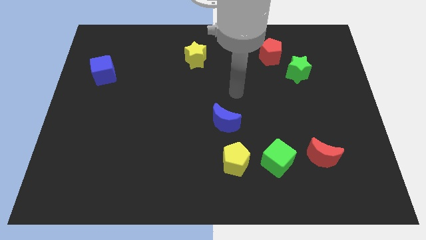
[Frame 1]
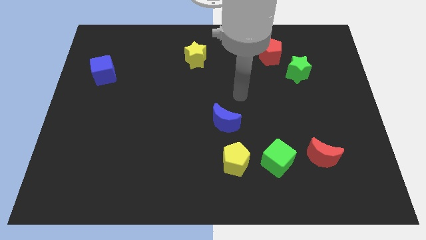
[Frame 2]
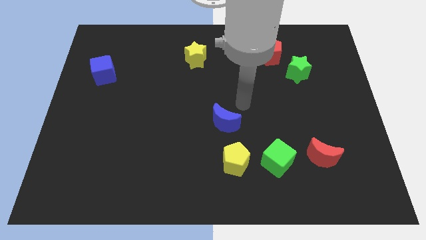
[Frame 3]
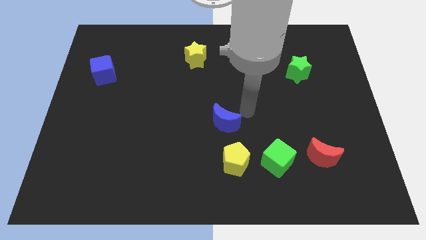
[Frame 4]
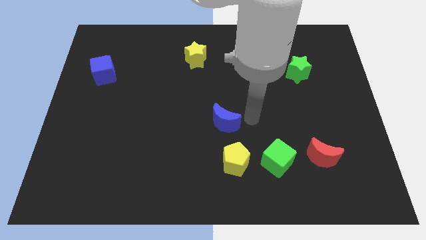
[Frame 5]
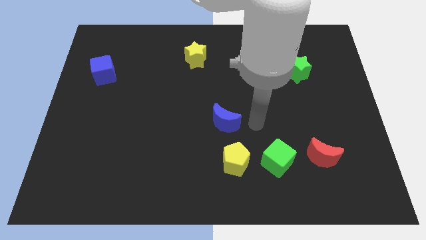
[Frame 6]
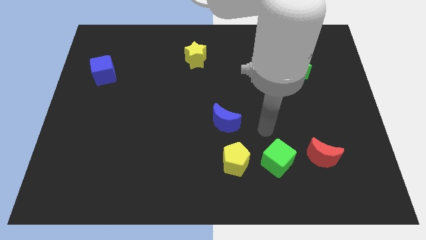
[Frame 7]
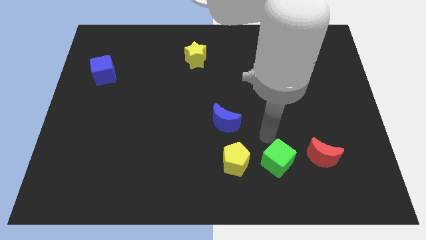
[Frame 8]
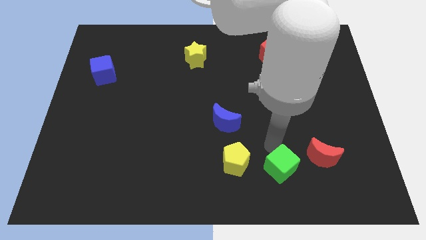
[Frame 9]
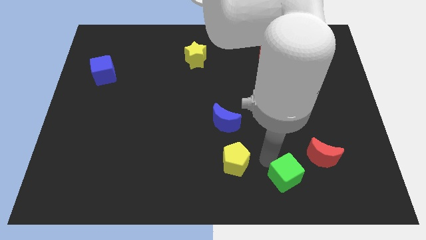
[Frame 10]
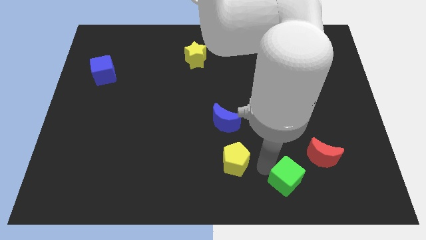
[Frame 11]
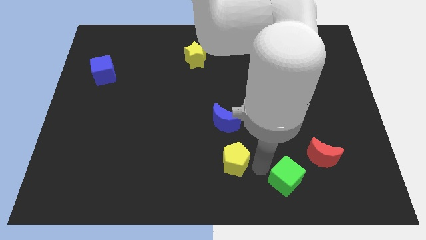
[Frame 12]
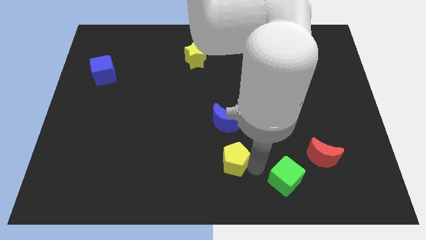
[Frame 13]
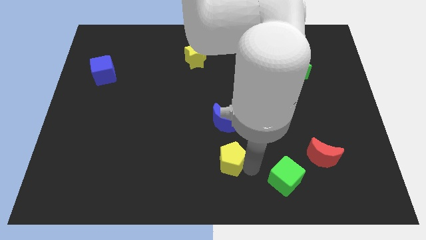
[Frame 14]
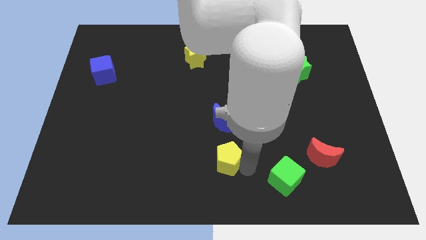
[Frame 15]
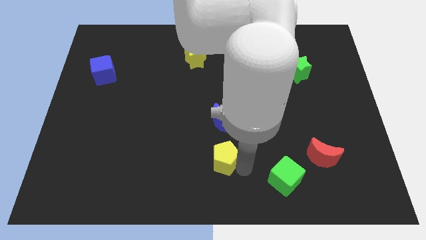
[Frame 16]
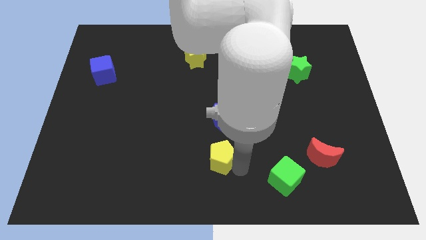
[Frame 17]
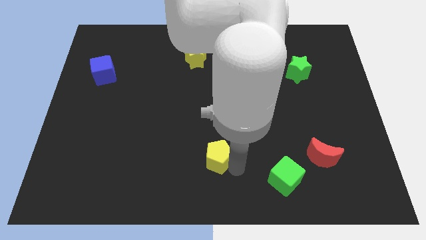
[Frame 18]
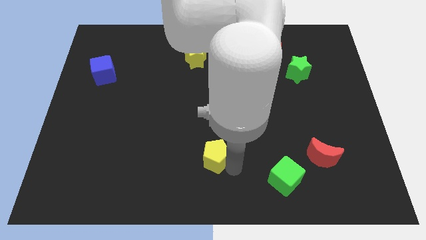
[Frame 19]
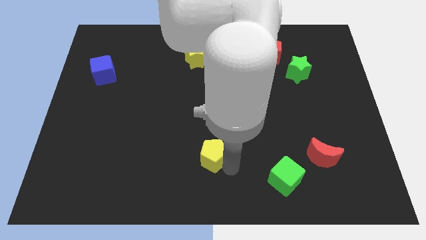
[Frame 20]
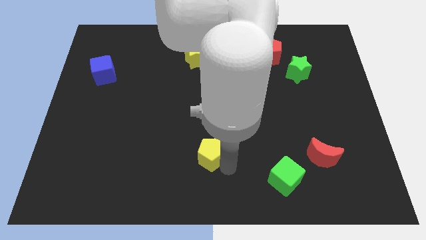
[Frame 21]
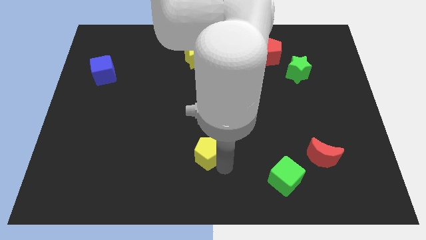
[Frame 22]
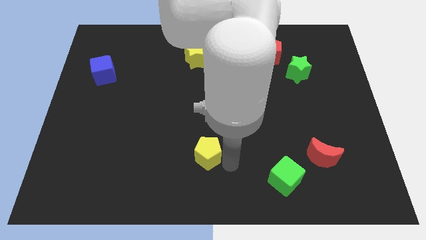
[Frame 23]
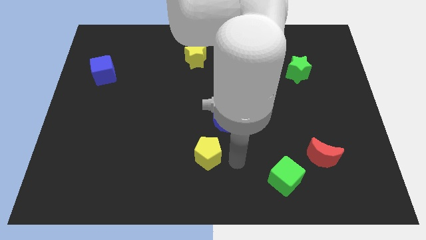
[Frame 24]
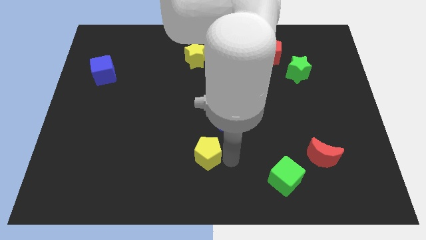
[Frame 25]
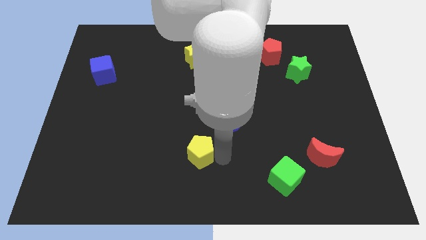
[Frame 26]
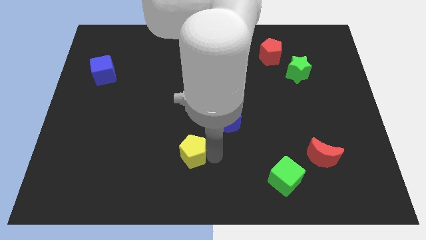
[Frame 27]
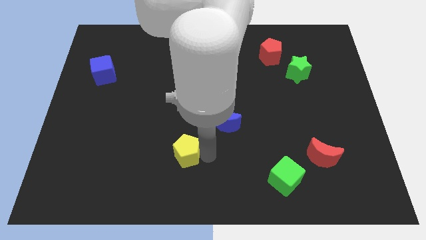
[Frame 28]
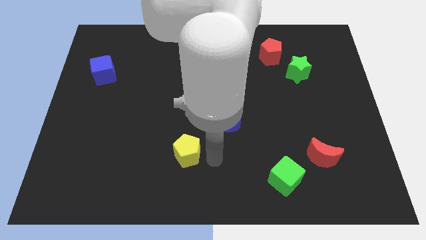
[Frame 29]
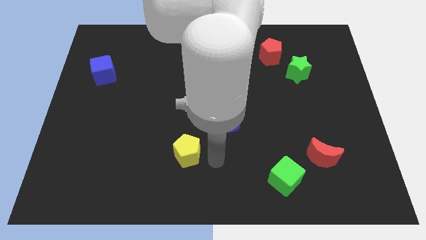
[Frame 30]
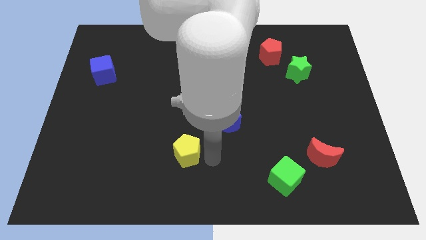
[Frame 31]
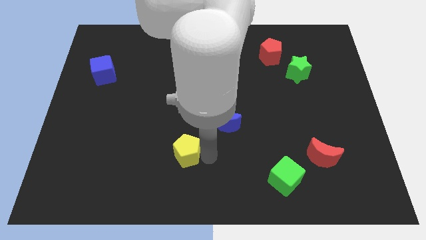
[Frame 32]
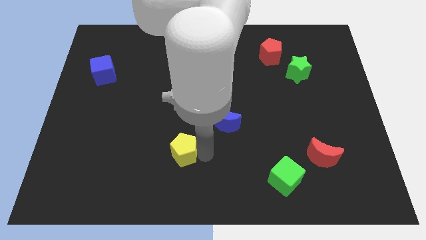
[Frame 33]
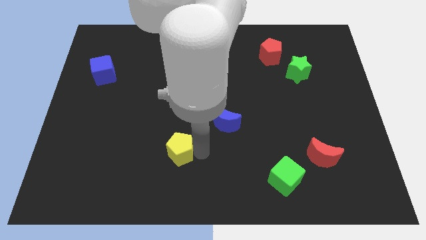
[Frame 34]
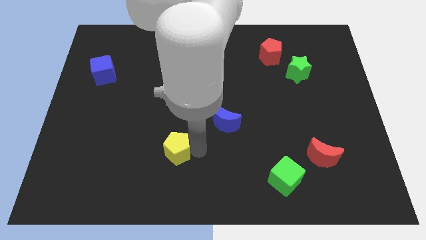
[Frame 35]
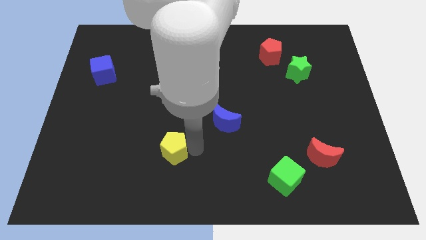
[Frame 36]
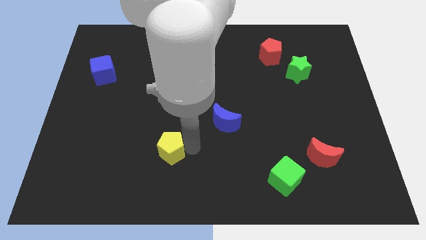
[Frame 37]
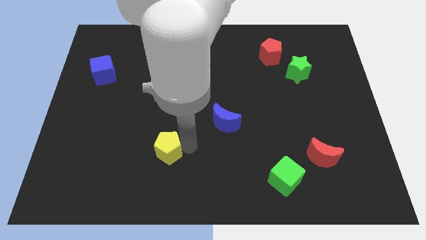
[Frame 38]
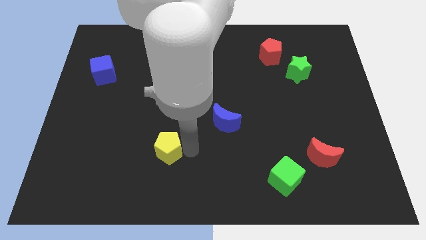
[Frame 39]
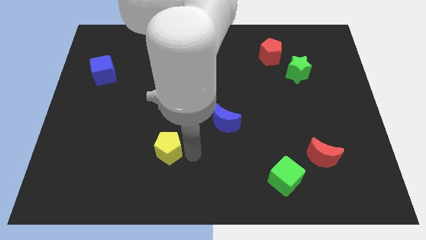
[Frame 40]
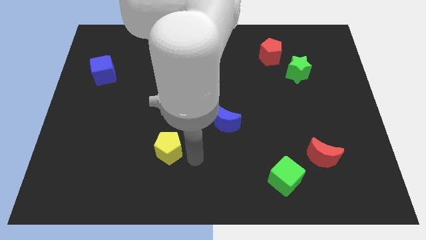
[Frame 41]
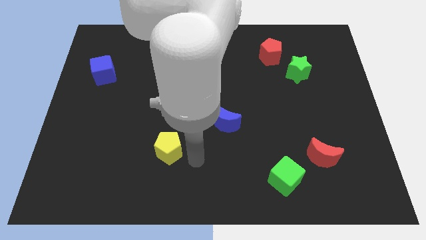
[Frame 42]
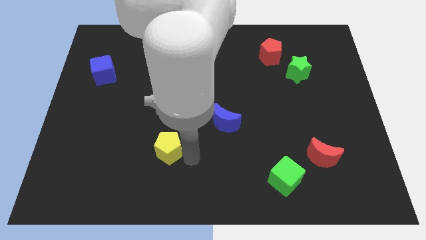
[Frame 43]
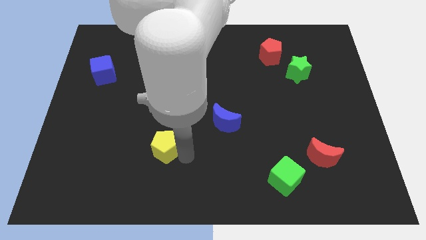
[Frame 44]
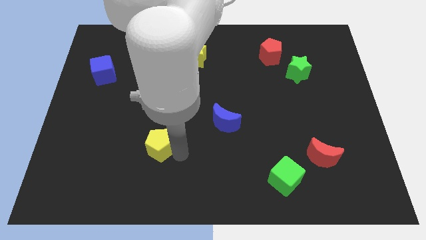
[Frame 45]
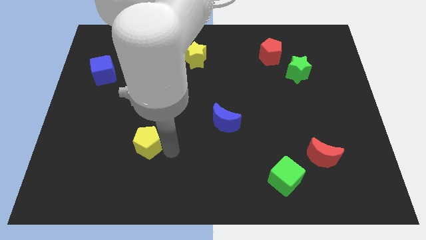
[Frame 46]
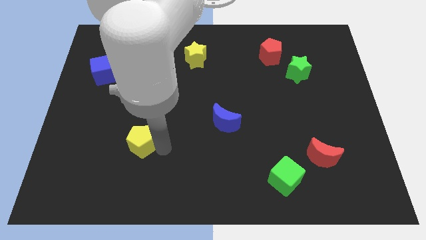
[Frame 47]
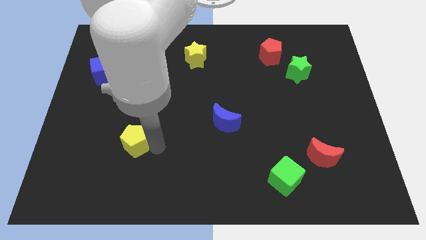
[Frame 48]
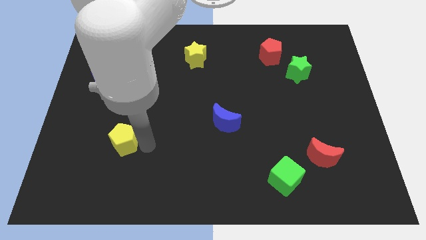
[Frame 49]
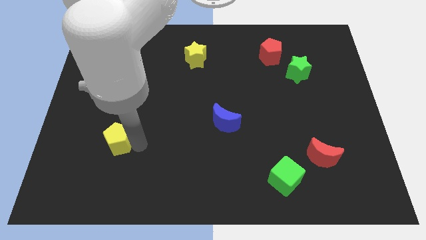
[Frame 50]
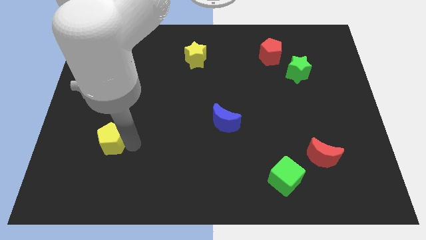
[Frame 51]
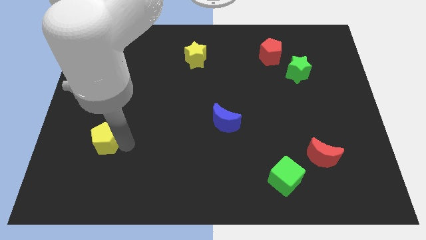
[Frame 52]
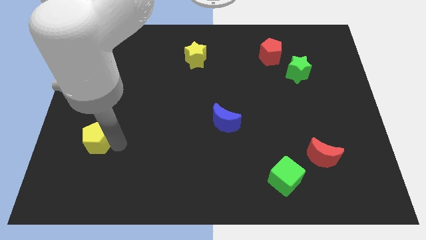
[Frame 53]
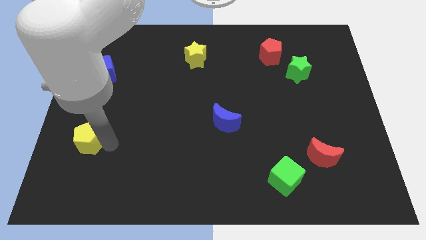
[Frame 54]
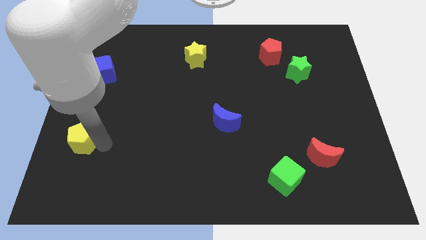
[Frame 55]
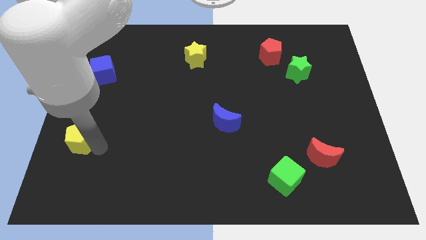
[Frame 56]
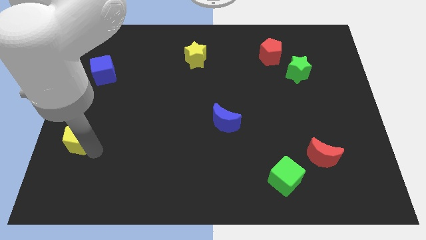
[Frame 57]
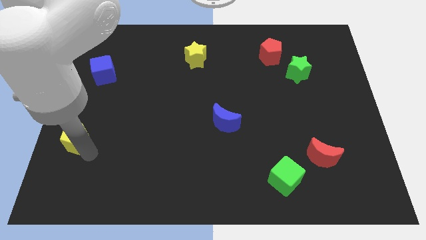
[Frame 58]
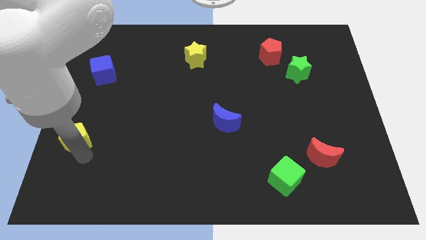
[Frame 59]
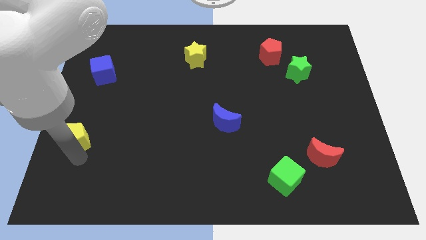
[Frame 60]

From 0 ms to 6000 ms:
push the yellow pentagon to the left side of the board

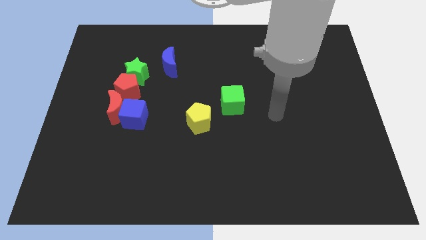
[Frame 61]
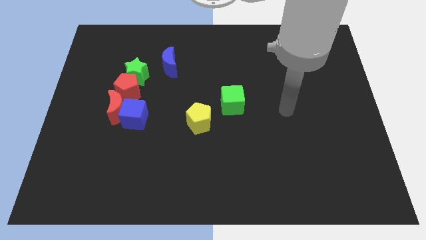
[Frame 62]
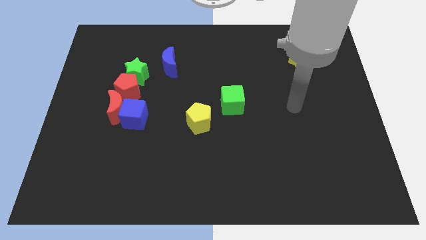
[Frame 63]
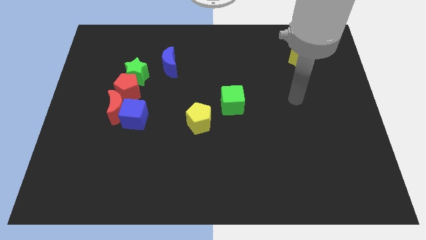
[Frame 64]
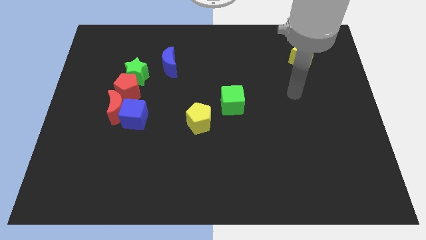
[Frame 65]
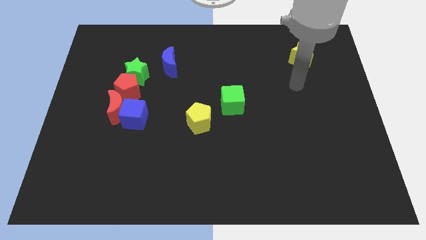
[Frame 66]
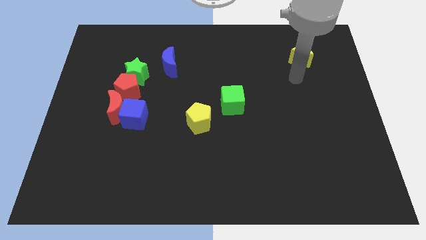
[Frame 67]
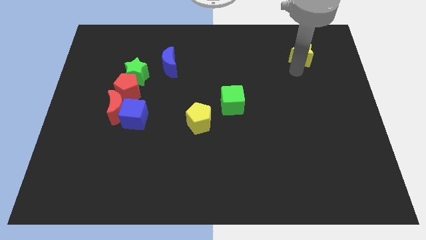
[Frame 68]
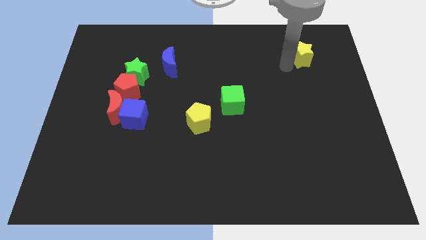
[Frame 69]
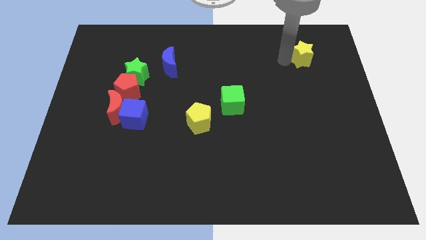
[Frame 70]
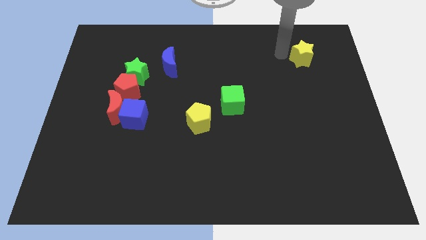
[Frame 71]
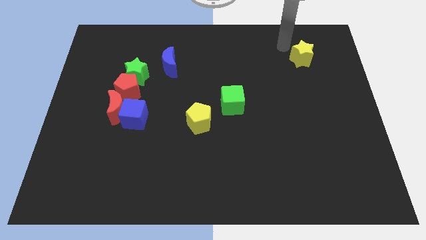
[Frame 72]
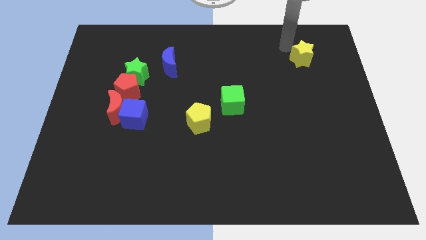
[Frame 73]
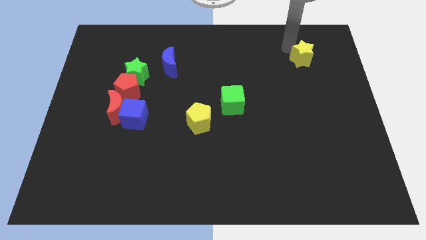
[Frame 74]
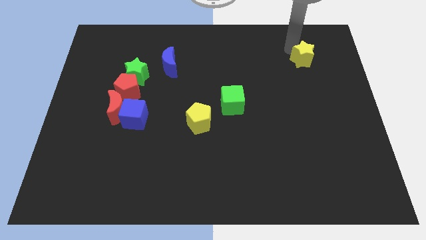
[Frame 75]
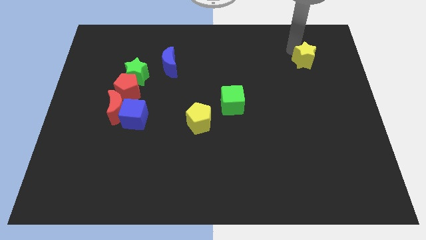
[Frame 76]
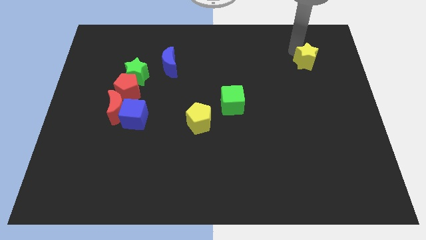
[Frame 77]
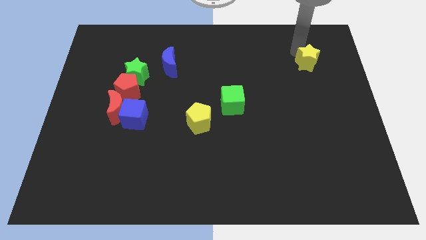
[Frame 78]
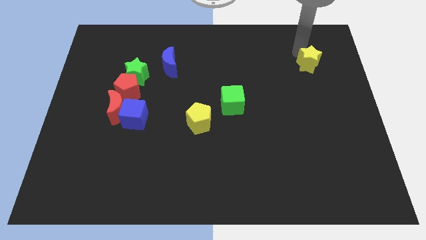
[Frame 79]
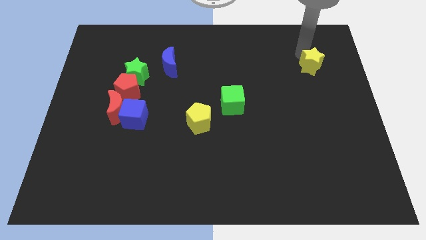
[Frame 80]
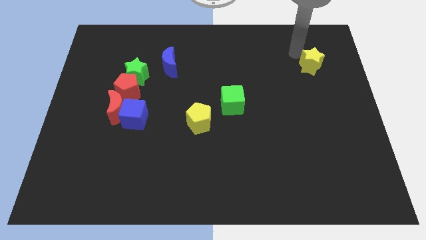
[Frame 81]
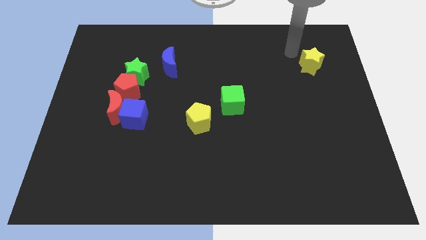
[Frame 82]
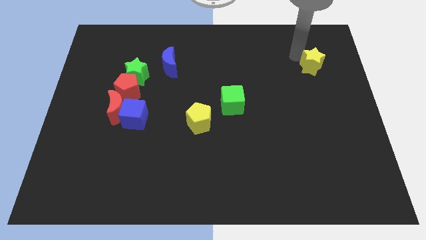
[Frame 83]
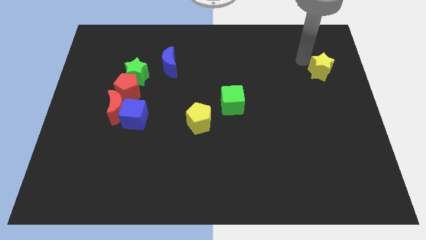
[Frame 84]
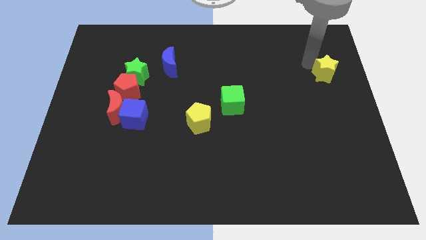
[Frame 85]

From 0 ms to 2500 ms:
put the yellow star to the right side
